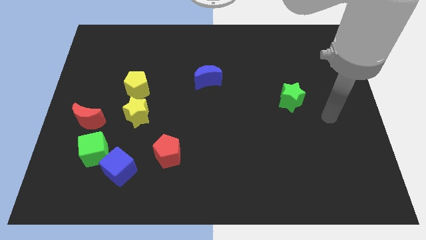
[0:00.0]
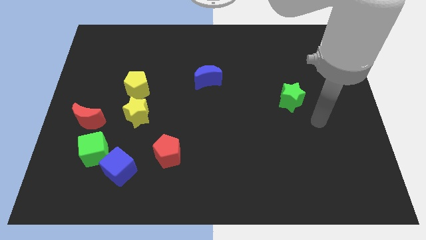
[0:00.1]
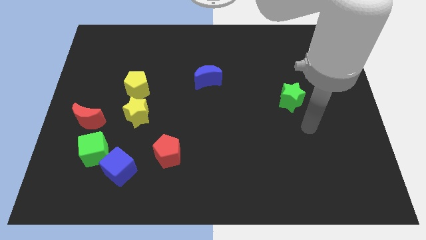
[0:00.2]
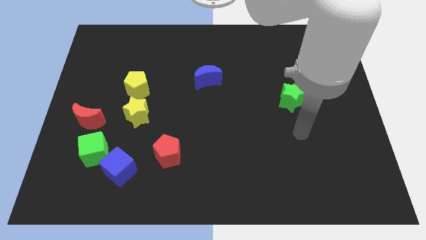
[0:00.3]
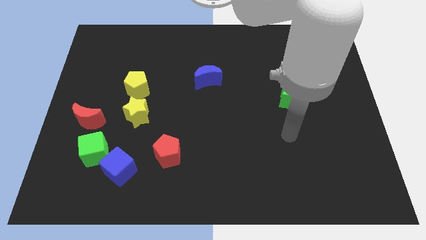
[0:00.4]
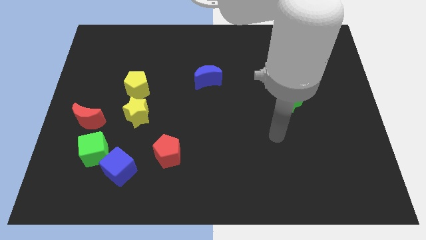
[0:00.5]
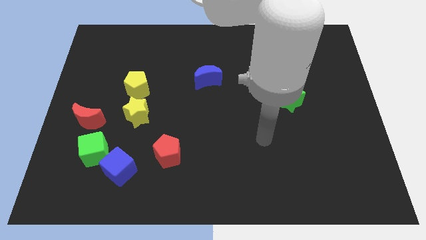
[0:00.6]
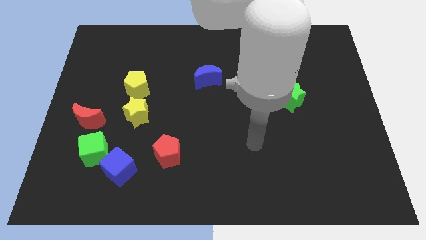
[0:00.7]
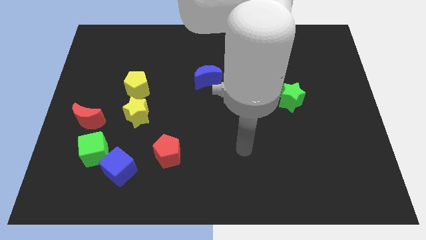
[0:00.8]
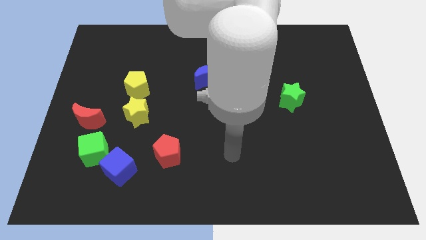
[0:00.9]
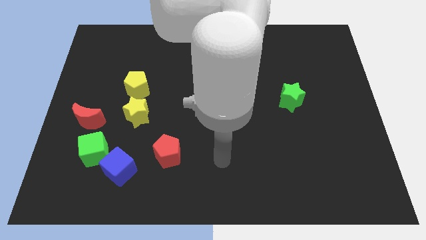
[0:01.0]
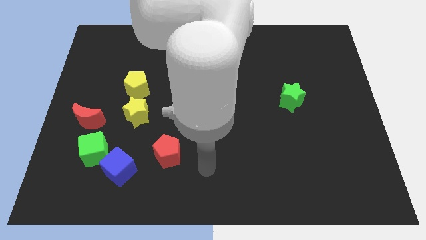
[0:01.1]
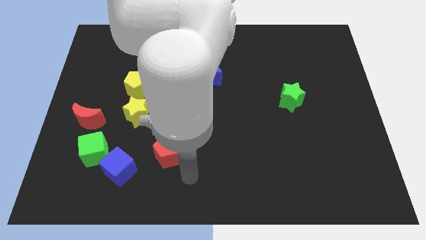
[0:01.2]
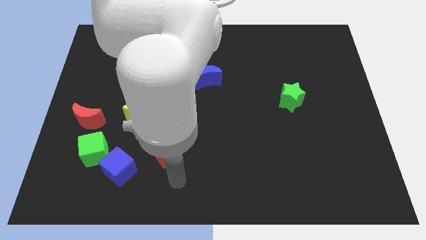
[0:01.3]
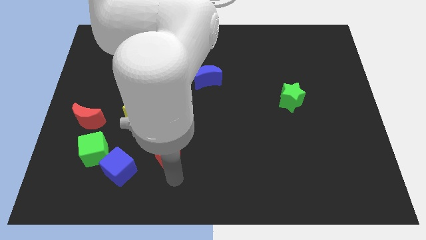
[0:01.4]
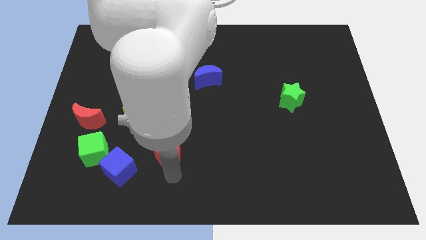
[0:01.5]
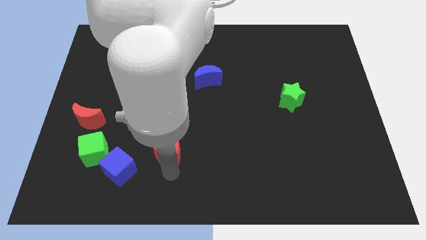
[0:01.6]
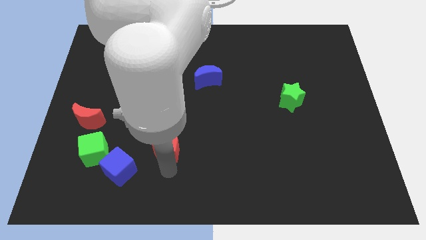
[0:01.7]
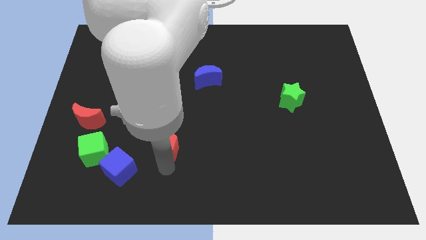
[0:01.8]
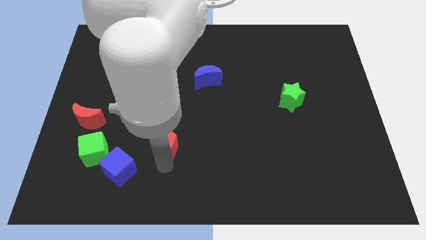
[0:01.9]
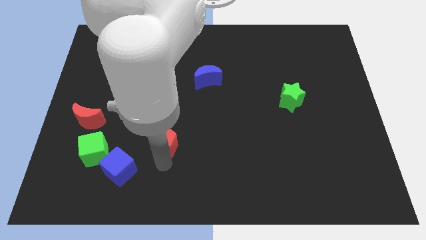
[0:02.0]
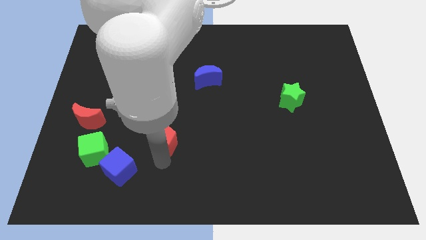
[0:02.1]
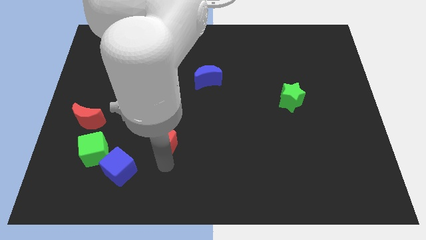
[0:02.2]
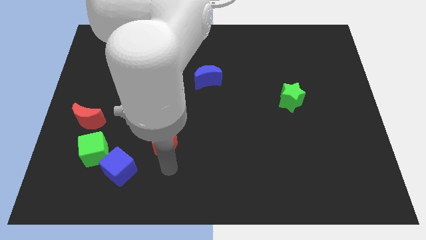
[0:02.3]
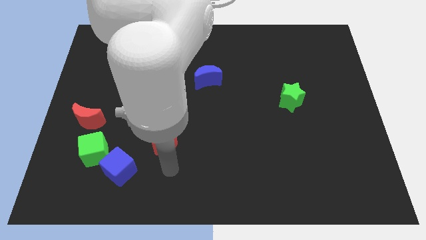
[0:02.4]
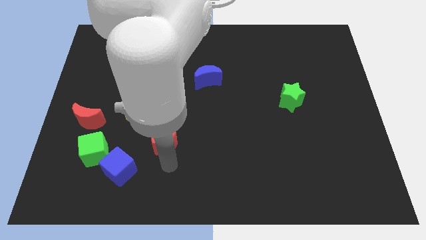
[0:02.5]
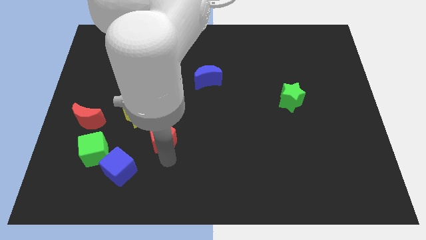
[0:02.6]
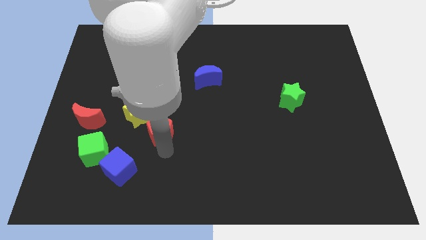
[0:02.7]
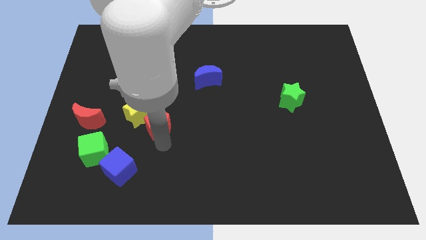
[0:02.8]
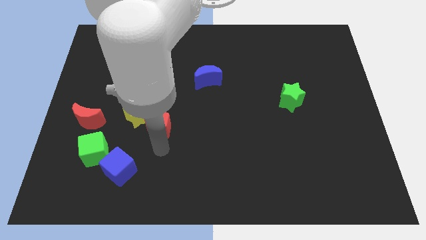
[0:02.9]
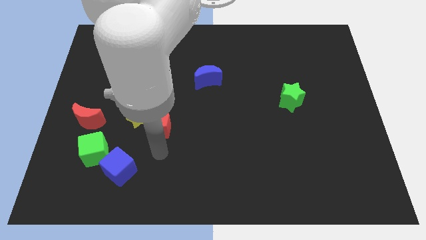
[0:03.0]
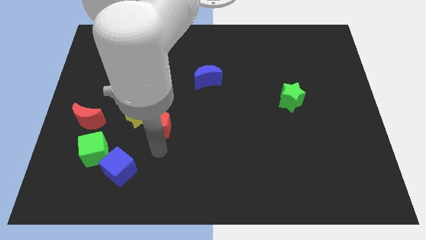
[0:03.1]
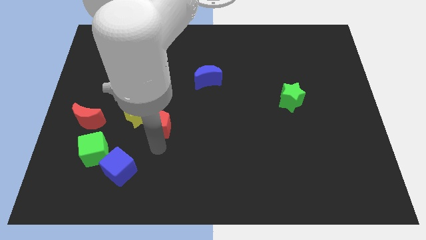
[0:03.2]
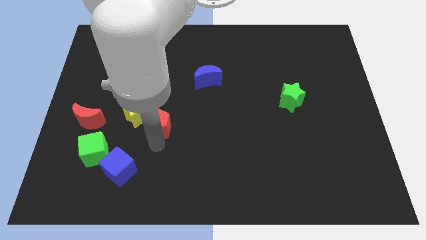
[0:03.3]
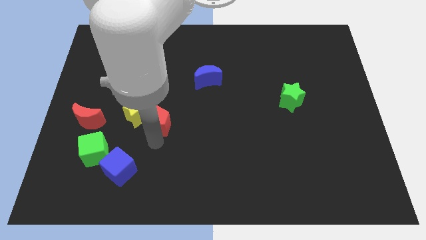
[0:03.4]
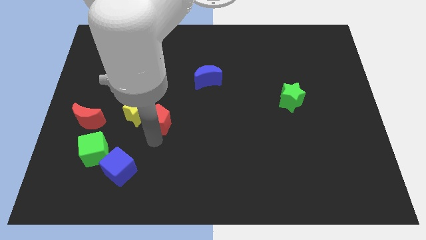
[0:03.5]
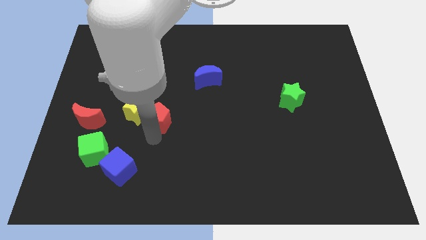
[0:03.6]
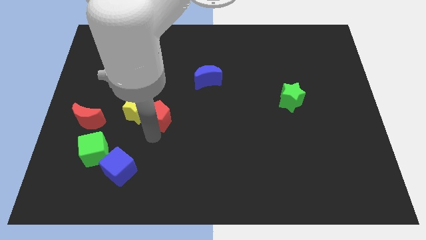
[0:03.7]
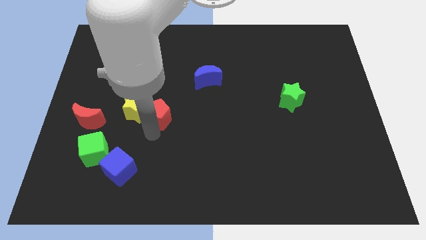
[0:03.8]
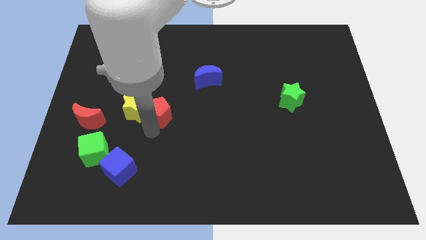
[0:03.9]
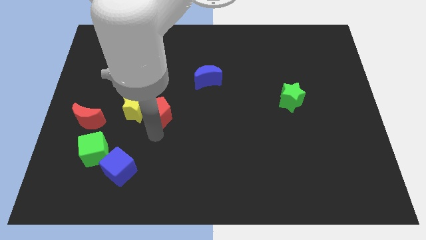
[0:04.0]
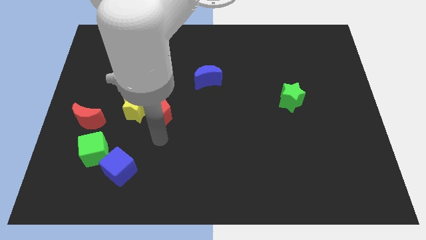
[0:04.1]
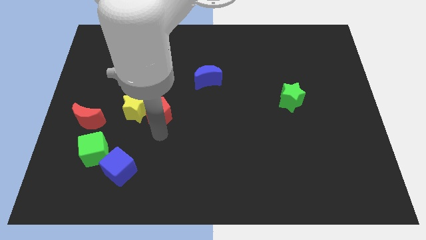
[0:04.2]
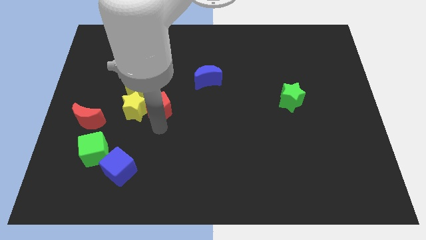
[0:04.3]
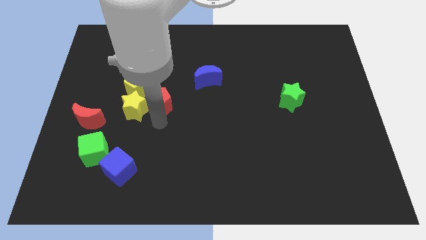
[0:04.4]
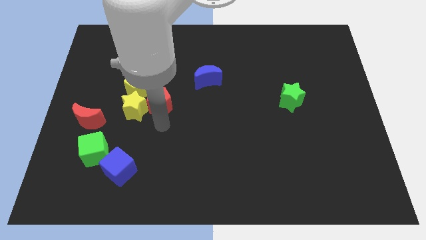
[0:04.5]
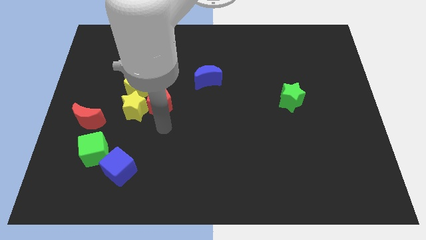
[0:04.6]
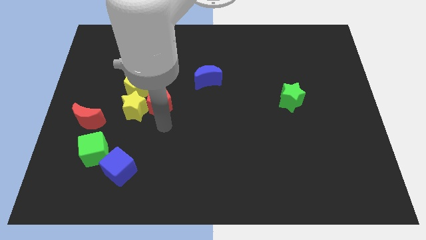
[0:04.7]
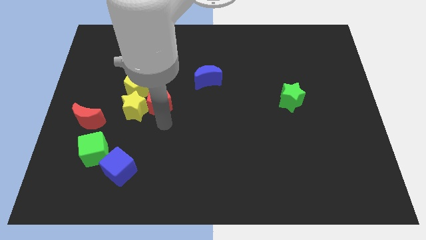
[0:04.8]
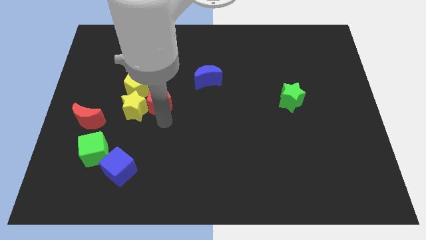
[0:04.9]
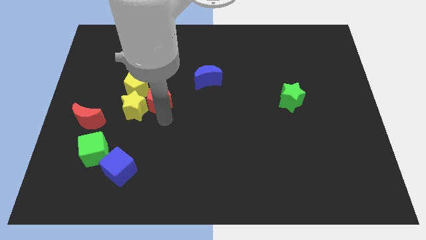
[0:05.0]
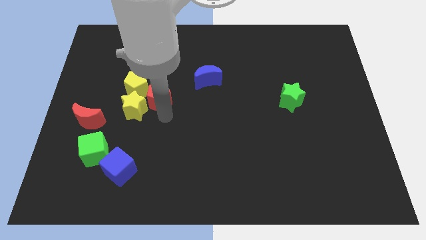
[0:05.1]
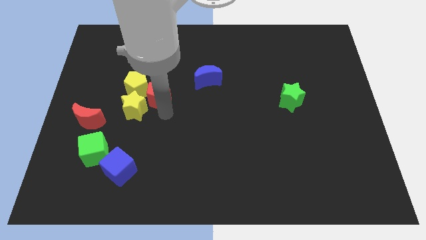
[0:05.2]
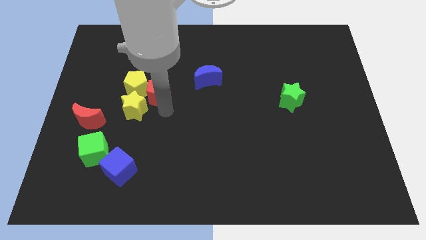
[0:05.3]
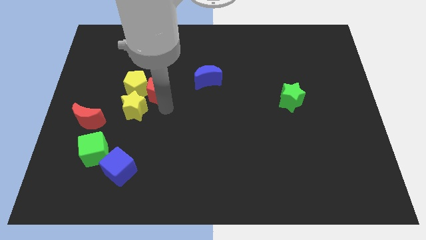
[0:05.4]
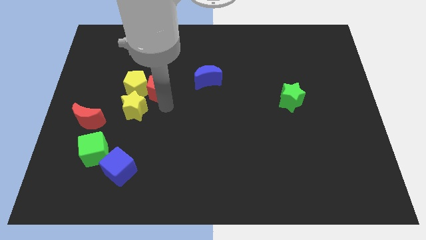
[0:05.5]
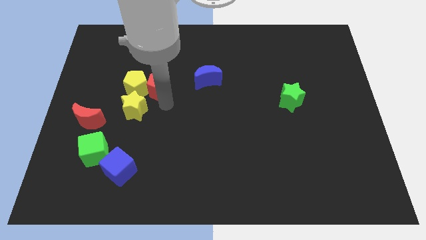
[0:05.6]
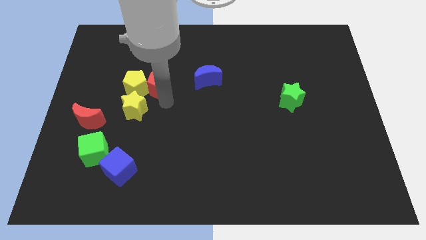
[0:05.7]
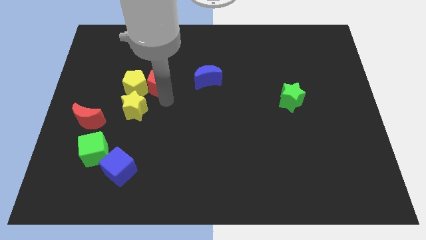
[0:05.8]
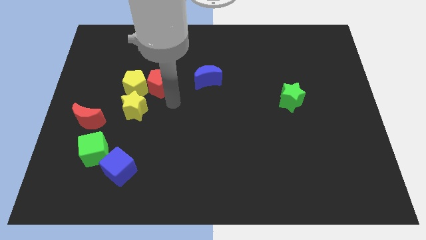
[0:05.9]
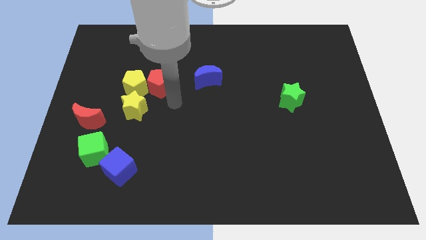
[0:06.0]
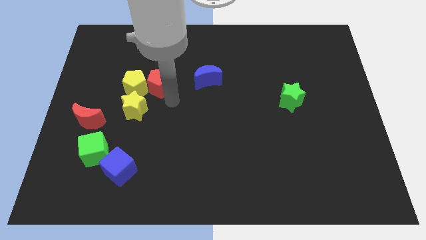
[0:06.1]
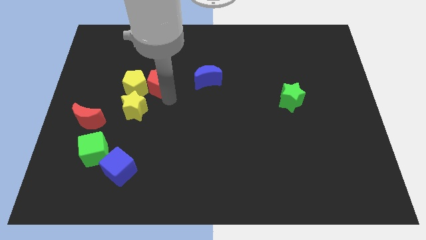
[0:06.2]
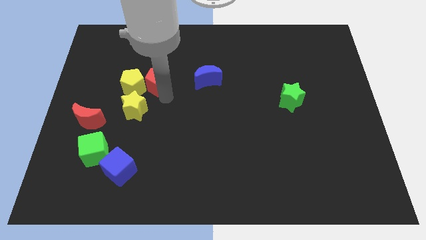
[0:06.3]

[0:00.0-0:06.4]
move the red pentagon to the top of the yellow star
